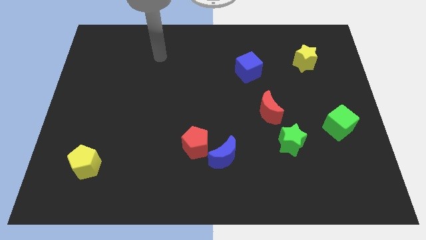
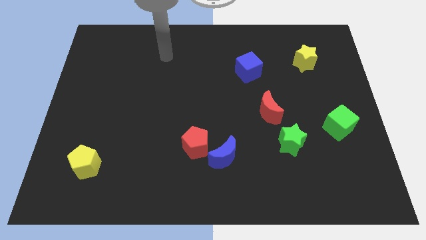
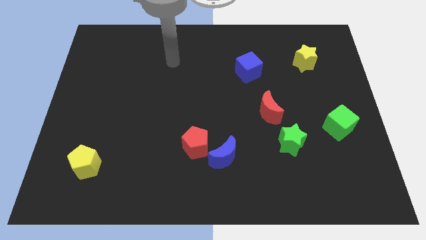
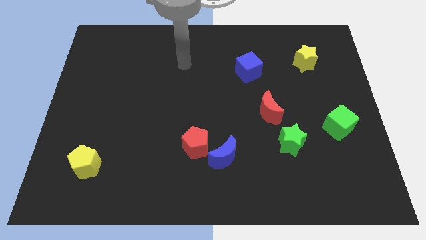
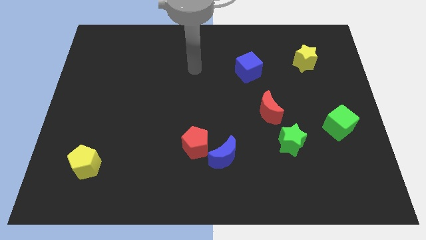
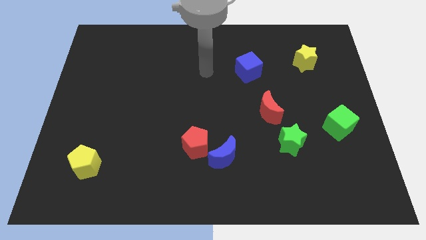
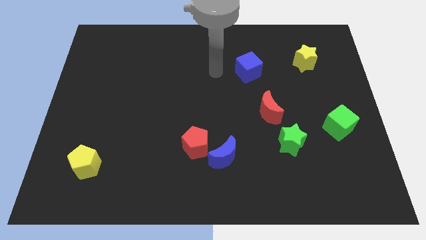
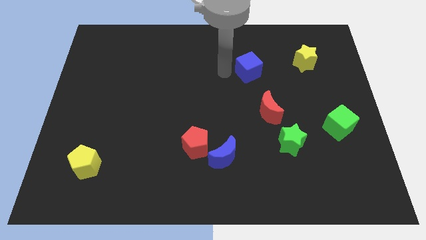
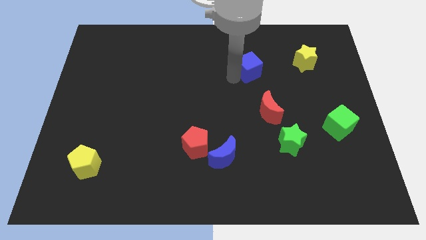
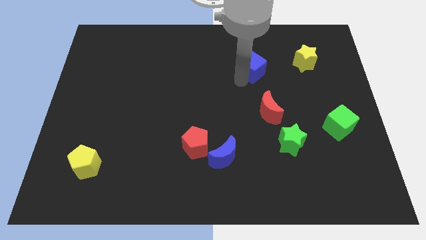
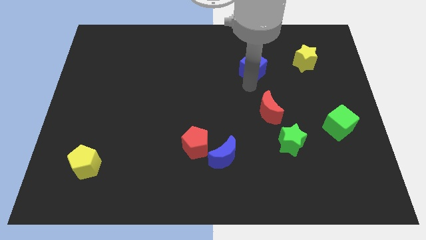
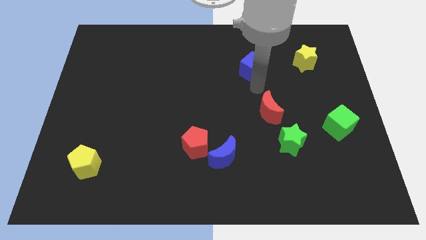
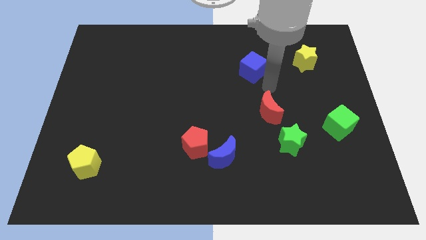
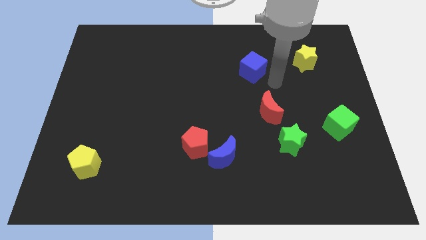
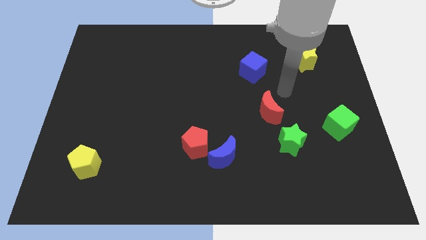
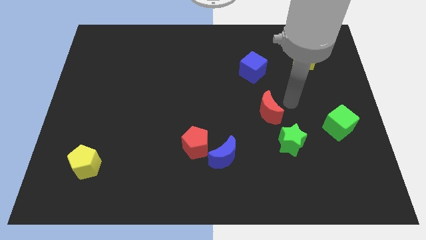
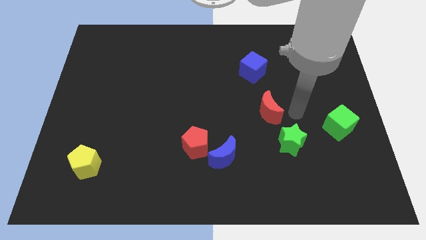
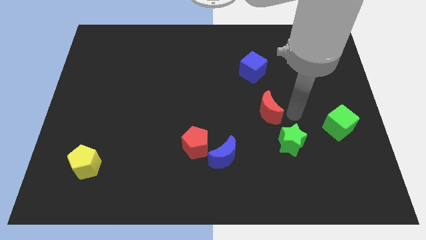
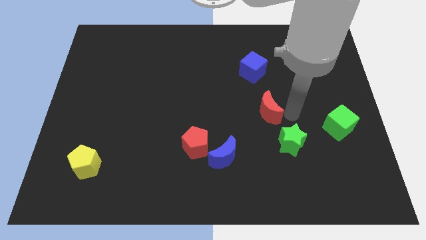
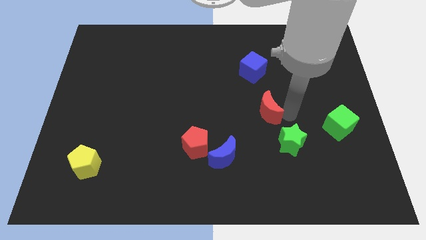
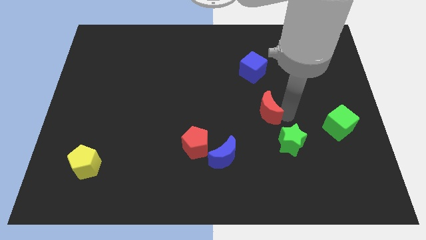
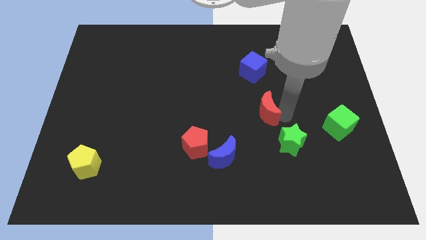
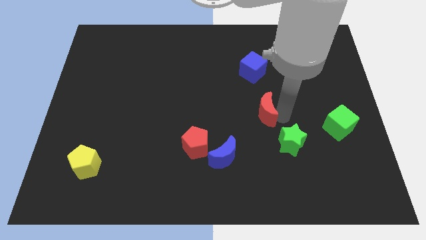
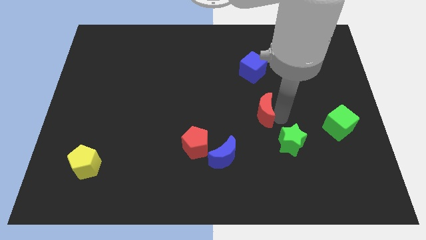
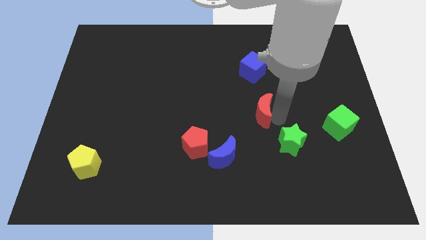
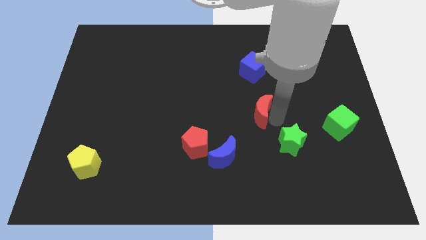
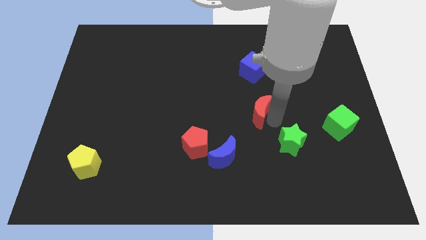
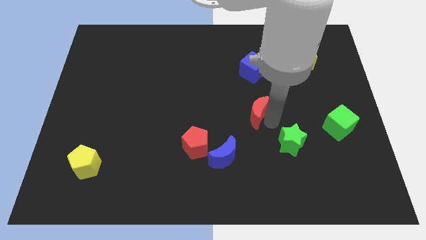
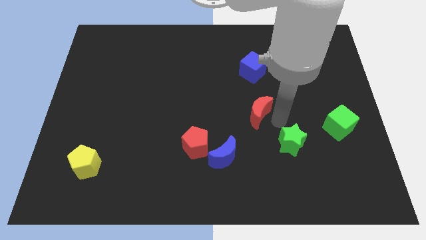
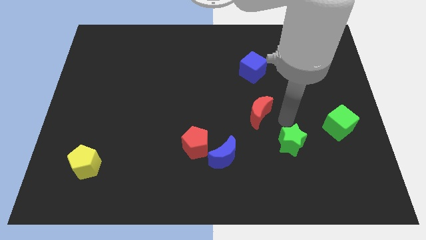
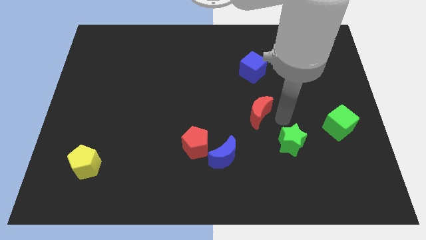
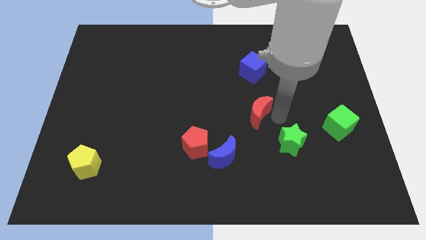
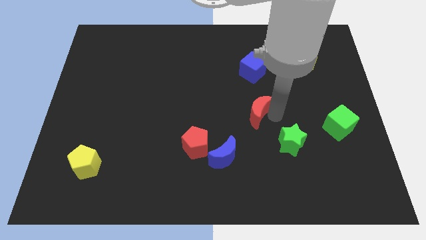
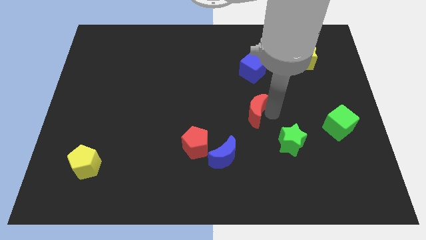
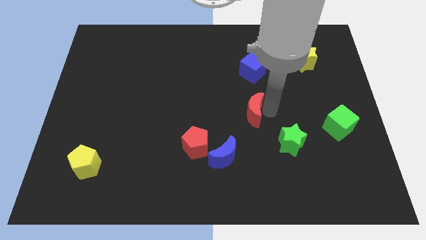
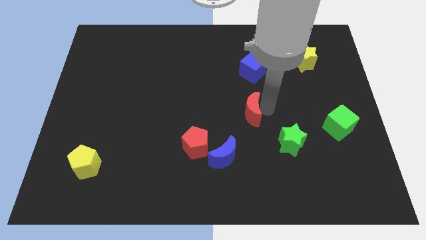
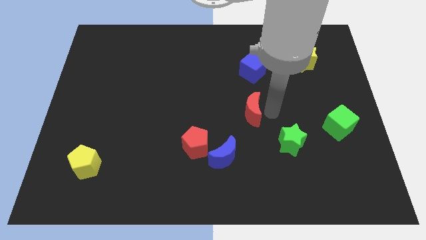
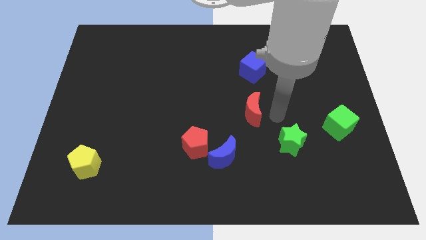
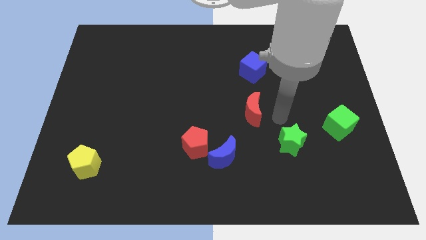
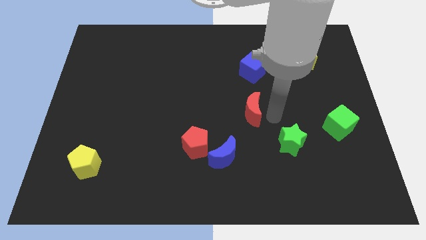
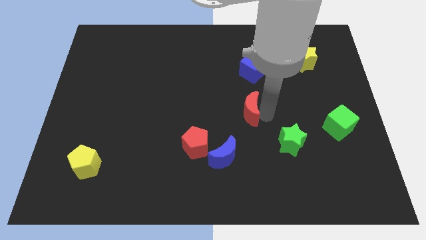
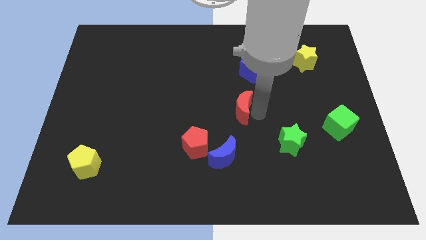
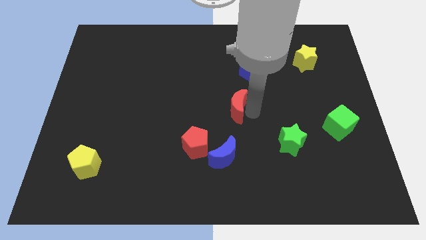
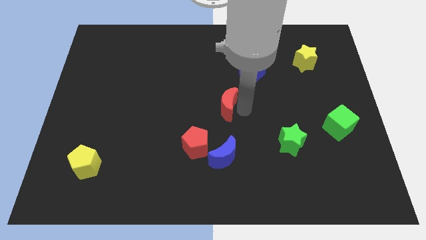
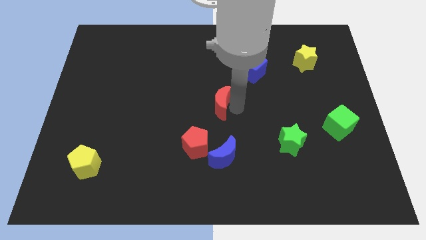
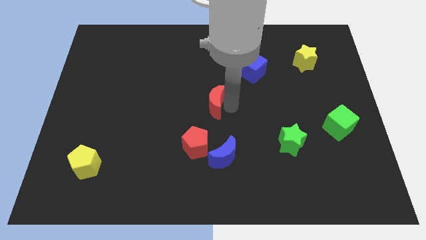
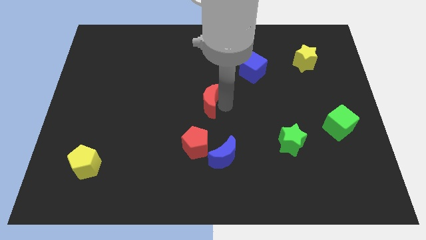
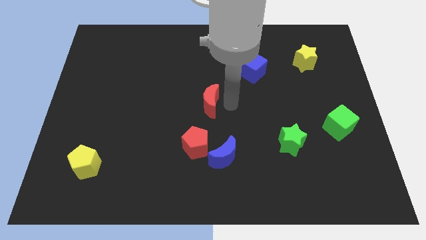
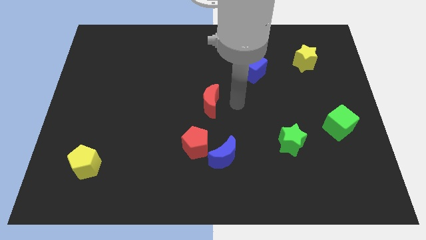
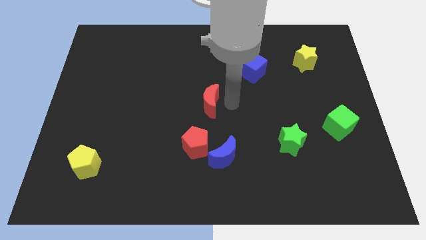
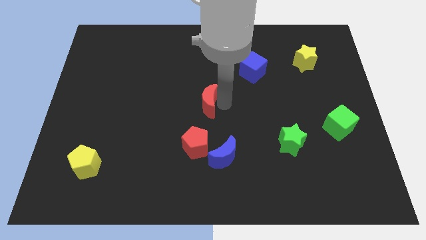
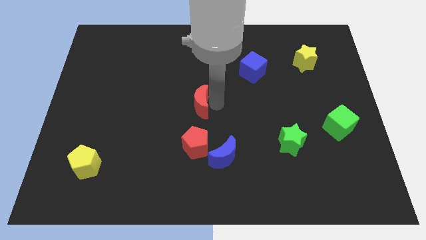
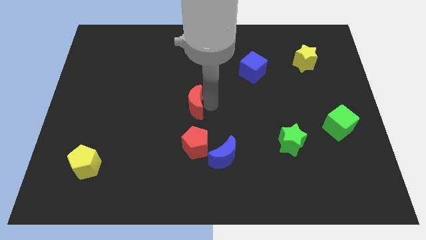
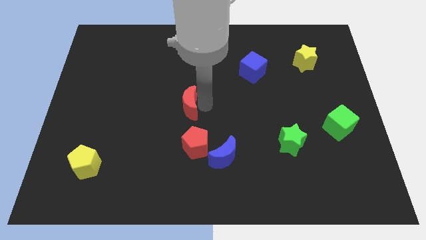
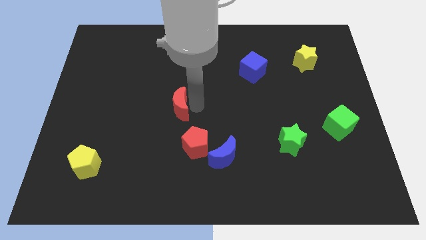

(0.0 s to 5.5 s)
move the red moon left

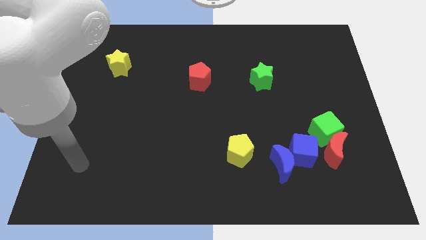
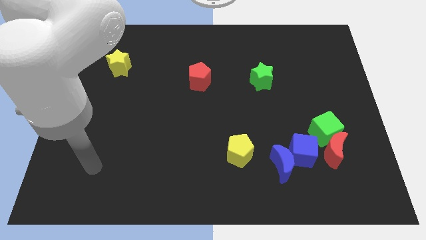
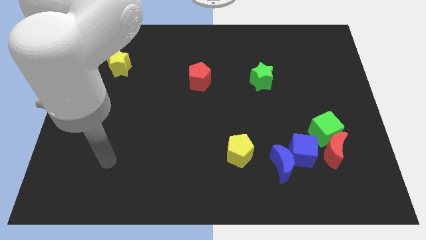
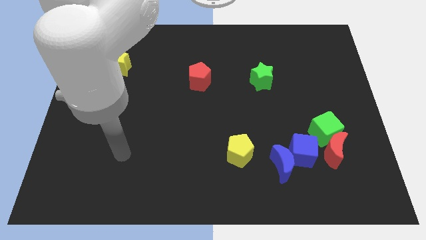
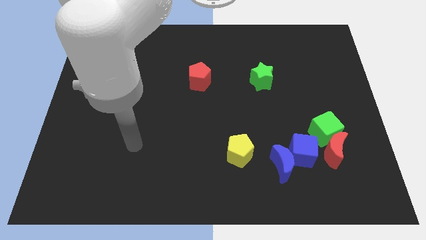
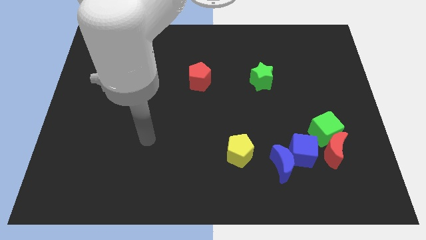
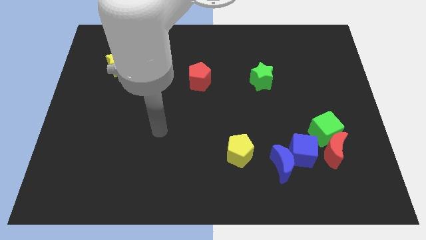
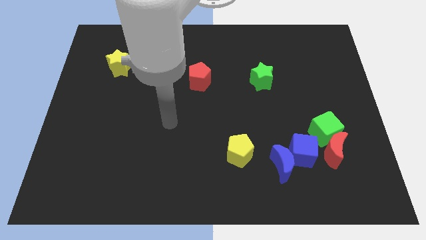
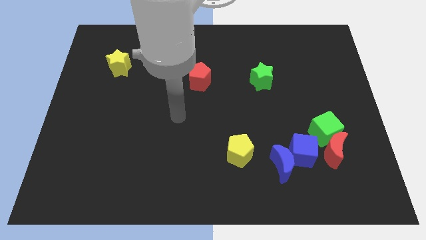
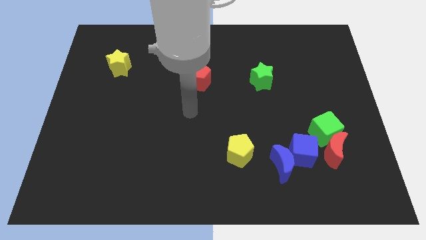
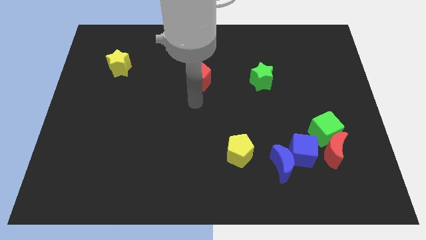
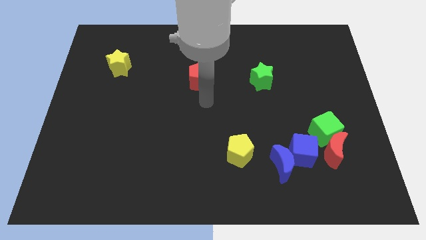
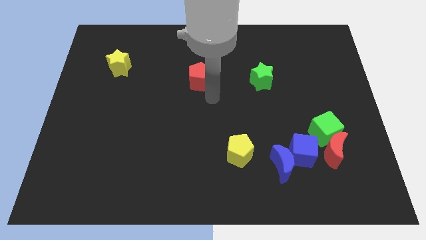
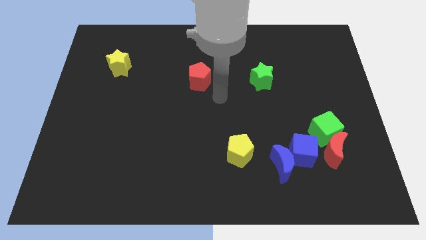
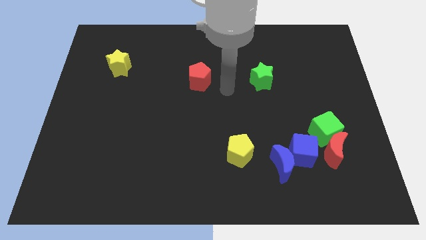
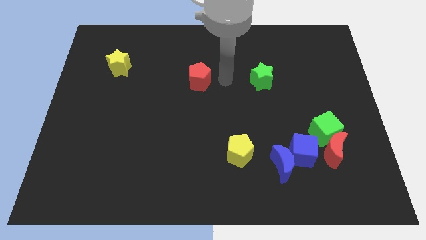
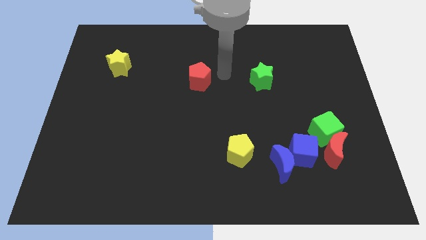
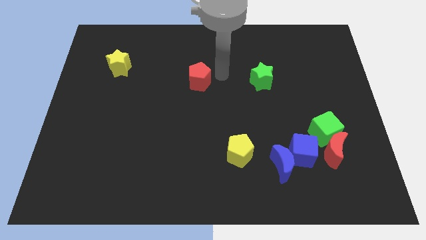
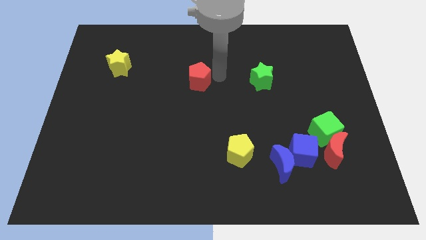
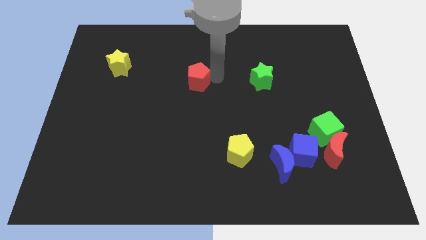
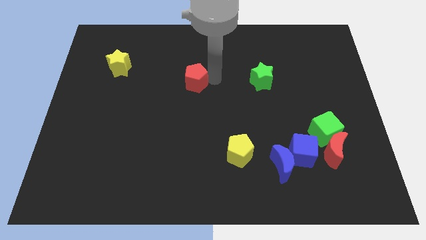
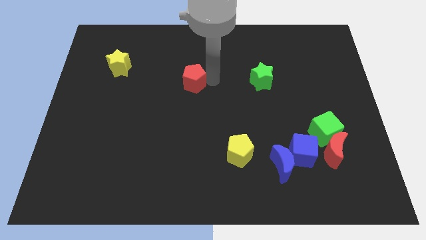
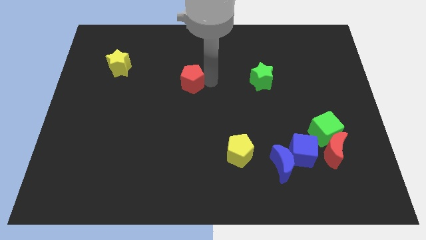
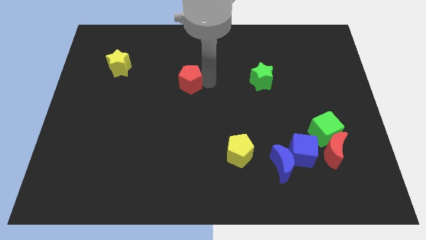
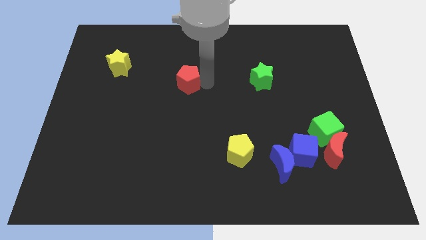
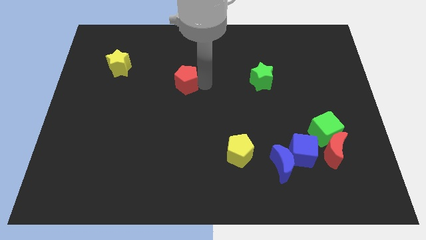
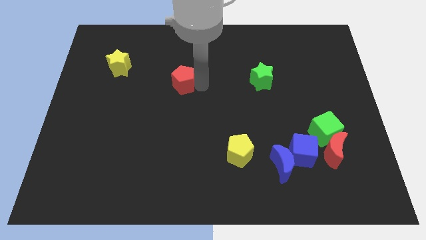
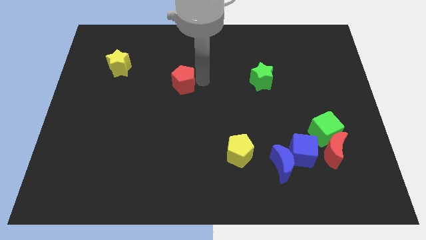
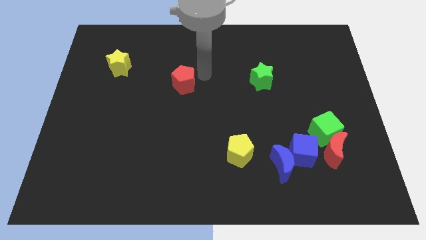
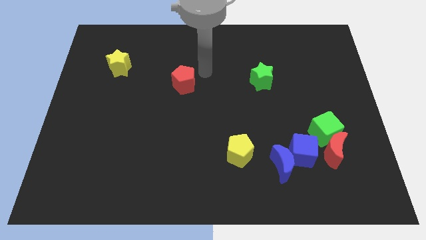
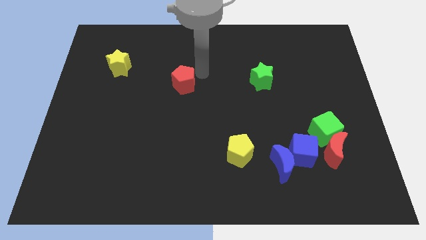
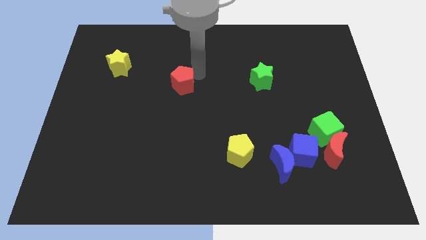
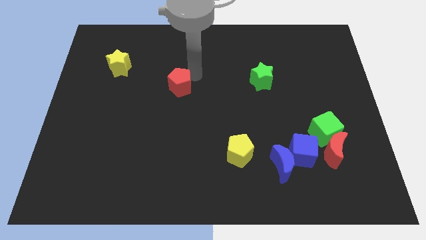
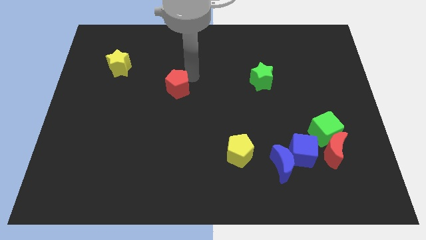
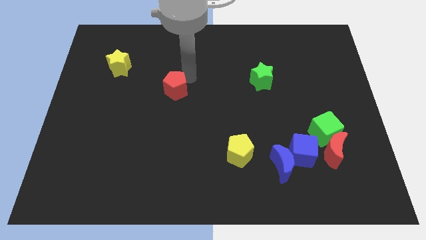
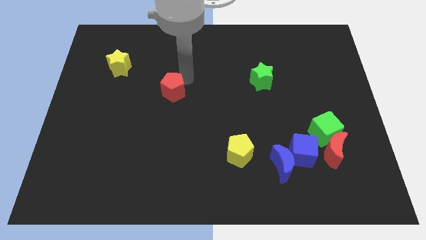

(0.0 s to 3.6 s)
move the red pentagon a bit down and then left
